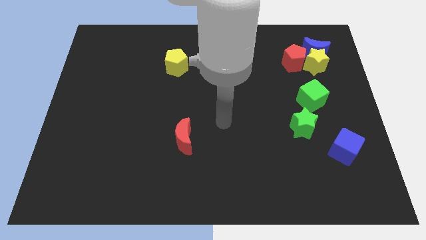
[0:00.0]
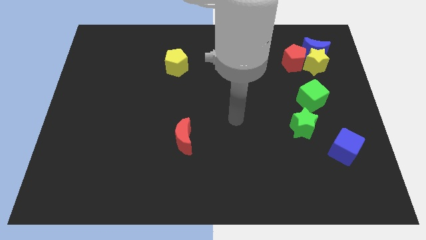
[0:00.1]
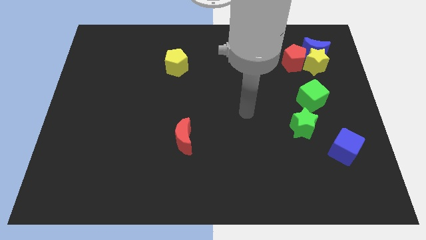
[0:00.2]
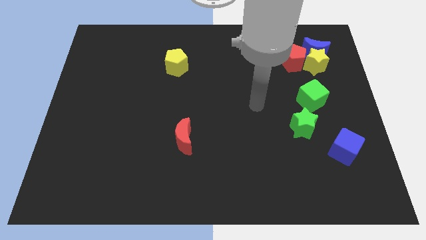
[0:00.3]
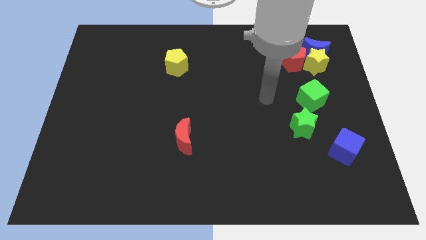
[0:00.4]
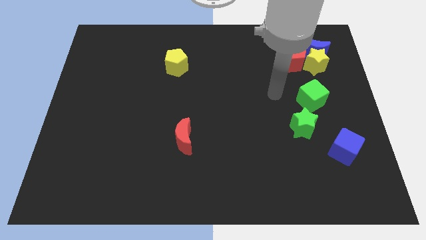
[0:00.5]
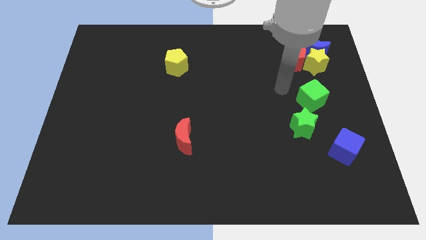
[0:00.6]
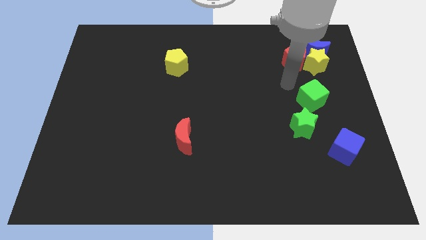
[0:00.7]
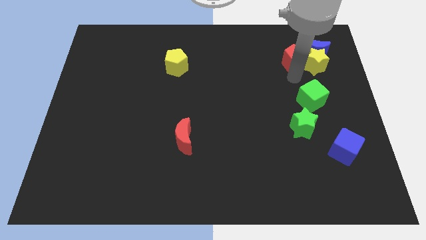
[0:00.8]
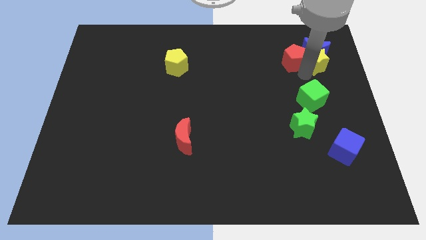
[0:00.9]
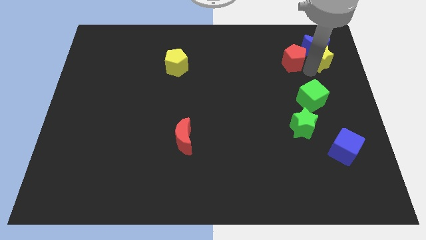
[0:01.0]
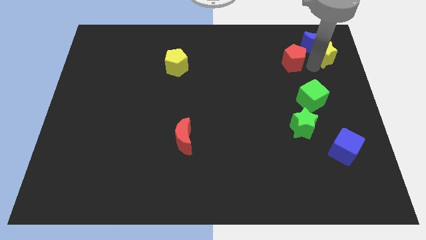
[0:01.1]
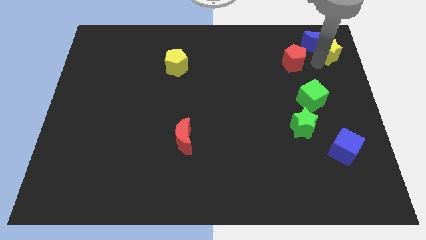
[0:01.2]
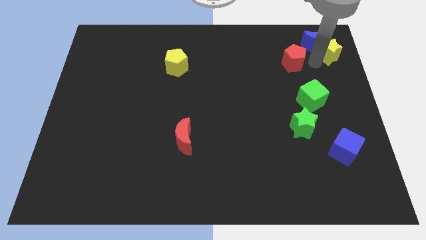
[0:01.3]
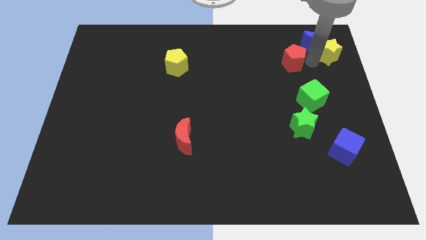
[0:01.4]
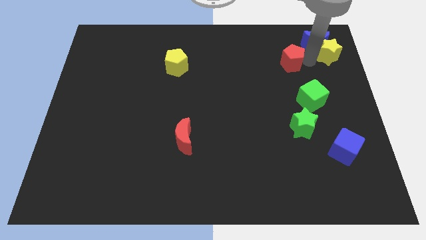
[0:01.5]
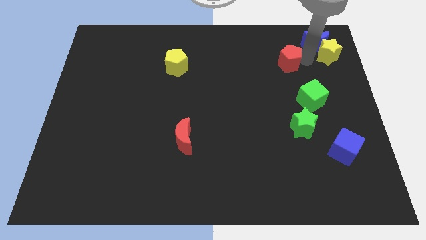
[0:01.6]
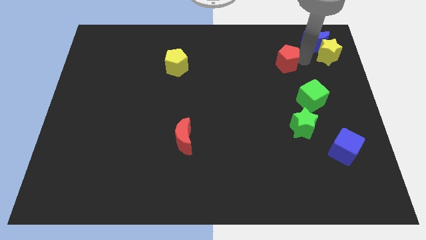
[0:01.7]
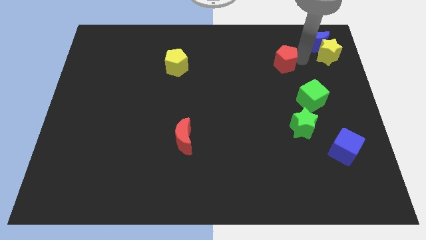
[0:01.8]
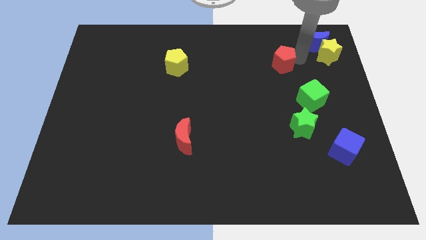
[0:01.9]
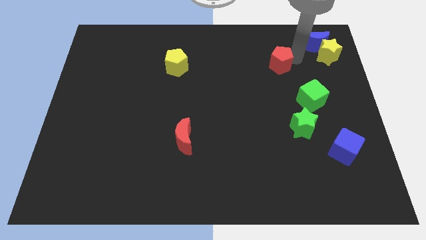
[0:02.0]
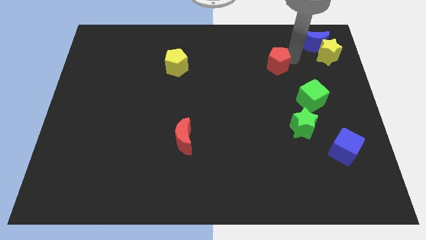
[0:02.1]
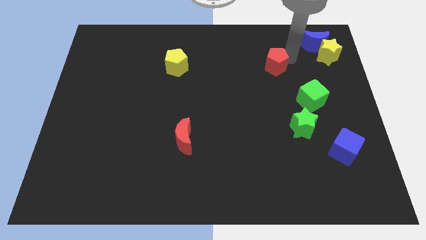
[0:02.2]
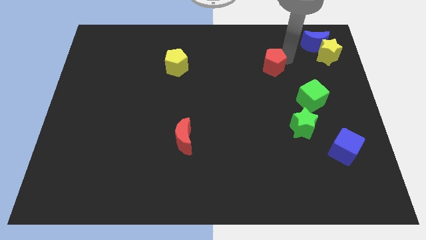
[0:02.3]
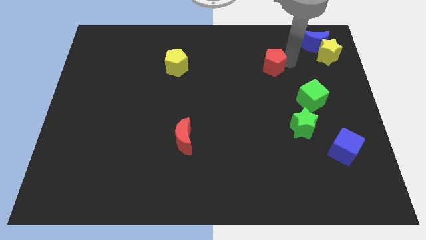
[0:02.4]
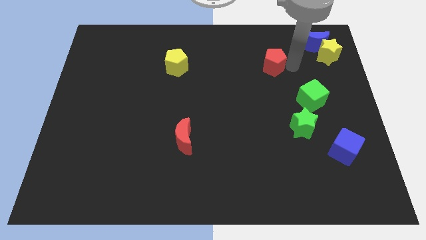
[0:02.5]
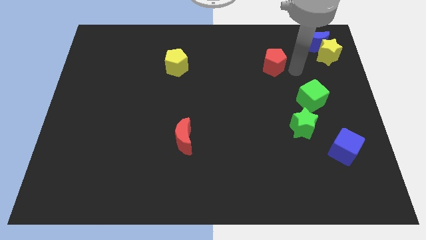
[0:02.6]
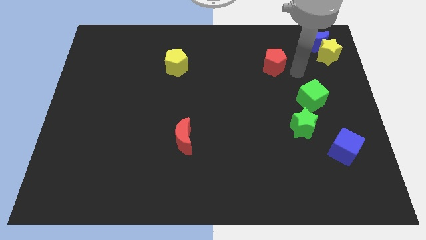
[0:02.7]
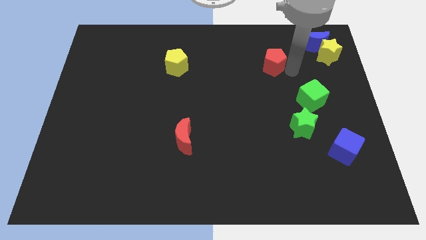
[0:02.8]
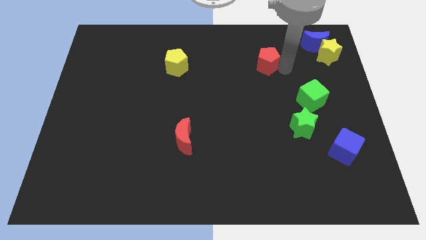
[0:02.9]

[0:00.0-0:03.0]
push the red pentagon a little bit left

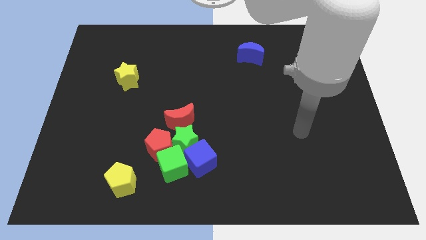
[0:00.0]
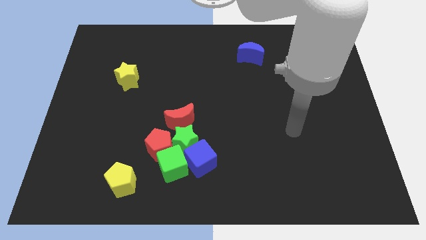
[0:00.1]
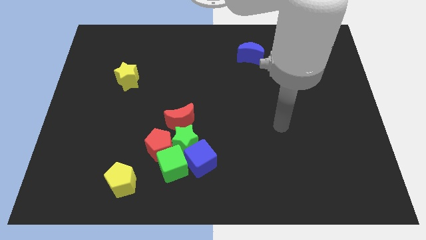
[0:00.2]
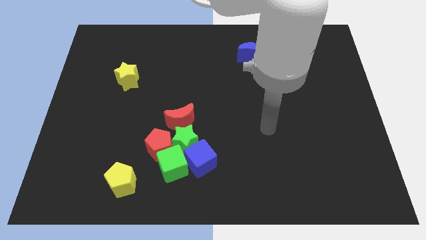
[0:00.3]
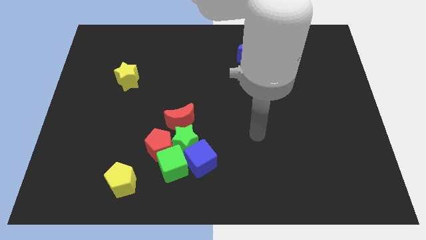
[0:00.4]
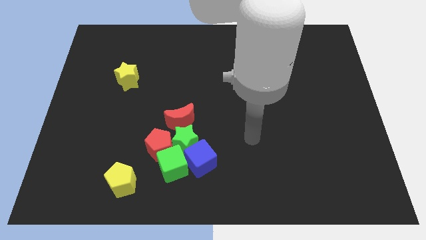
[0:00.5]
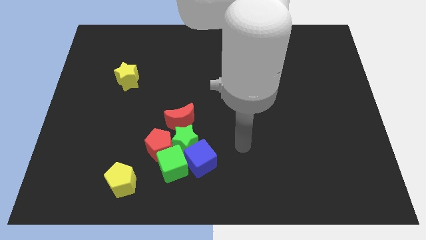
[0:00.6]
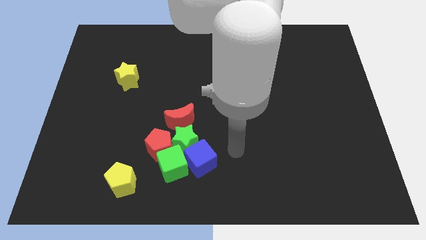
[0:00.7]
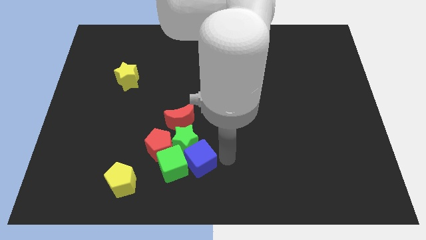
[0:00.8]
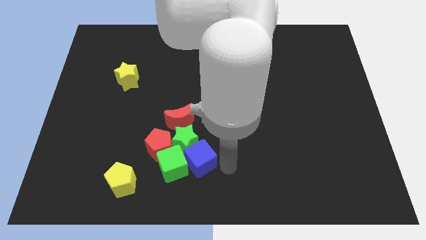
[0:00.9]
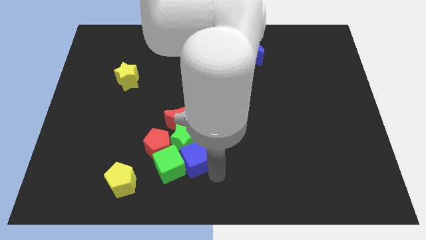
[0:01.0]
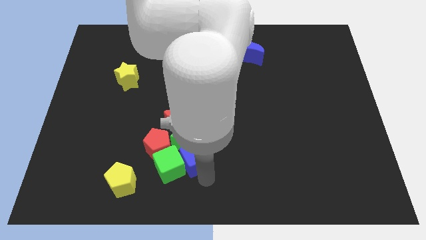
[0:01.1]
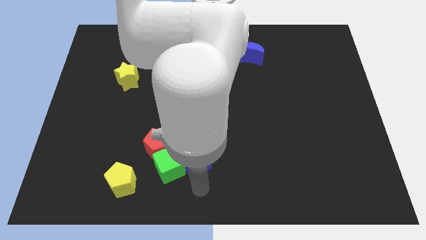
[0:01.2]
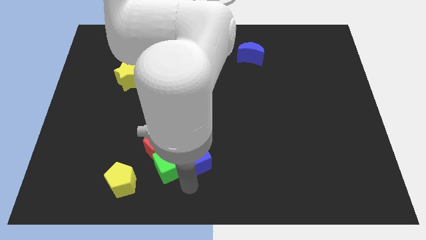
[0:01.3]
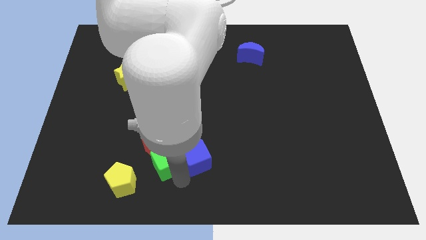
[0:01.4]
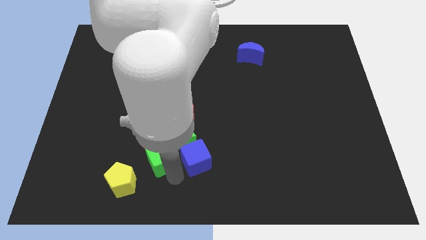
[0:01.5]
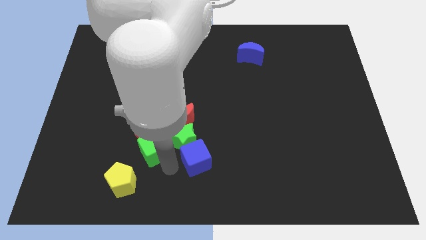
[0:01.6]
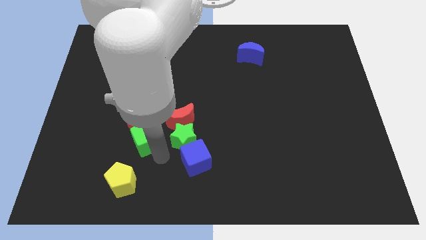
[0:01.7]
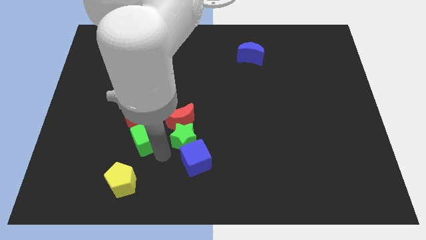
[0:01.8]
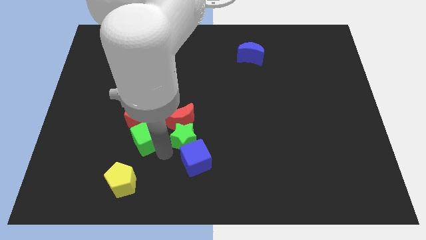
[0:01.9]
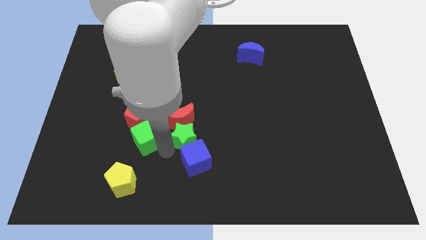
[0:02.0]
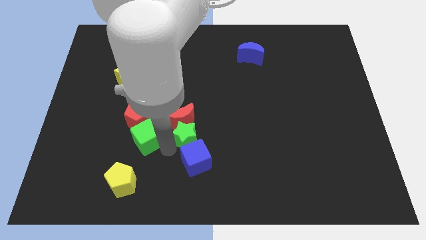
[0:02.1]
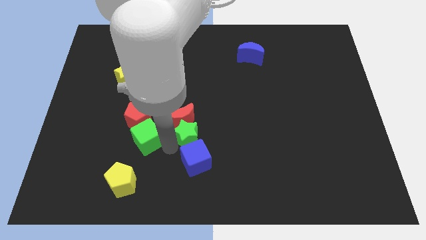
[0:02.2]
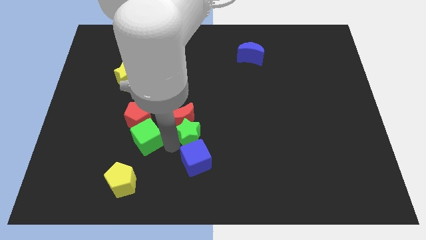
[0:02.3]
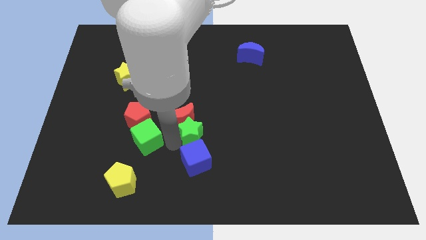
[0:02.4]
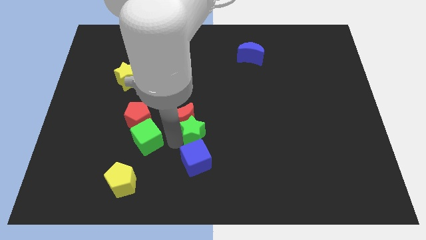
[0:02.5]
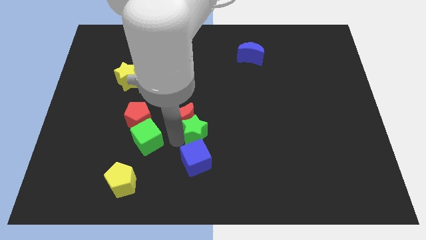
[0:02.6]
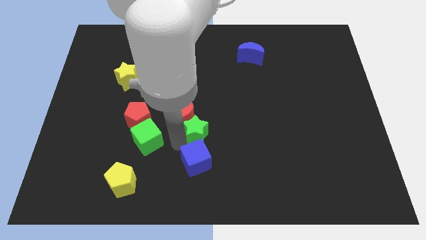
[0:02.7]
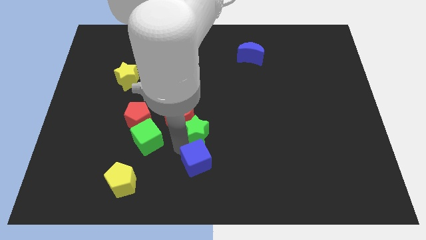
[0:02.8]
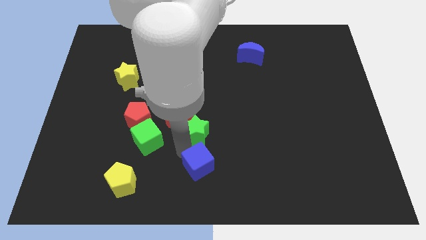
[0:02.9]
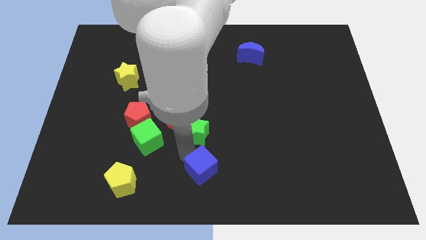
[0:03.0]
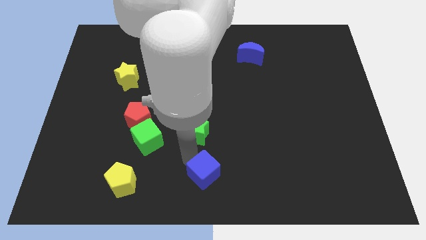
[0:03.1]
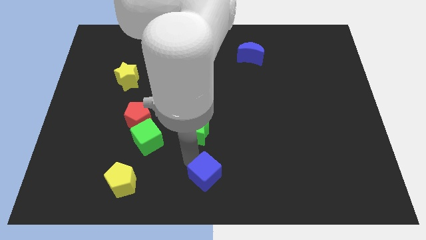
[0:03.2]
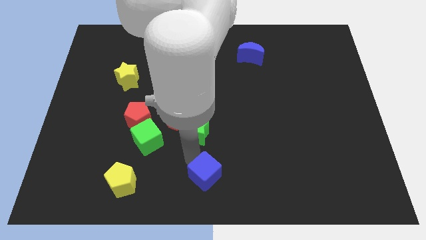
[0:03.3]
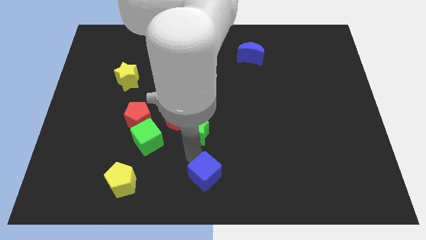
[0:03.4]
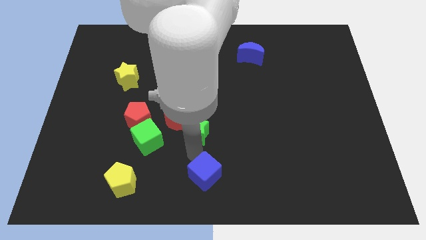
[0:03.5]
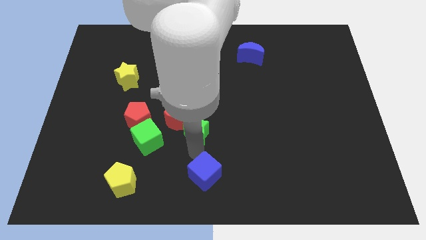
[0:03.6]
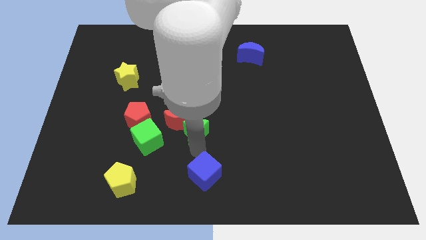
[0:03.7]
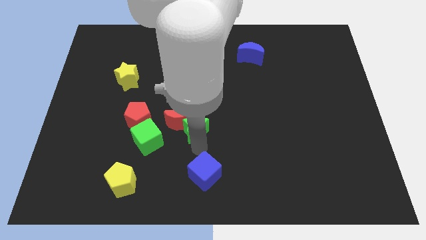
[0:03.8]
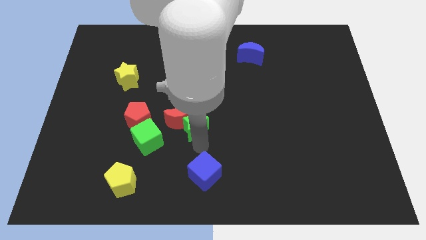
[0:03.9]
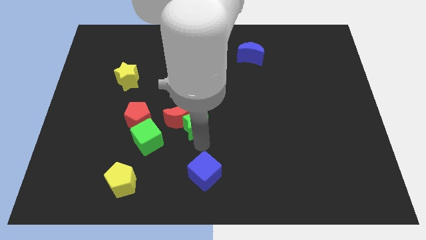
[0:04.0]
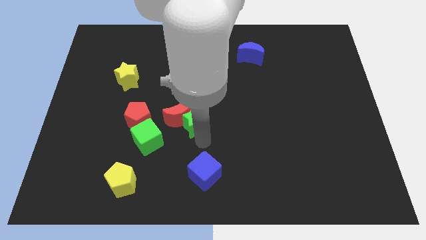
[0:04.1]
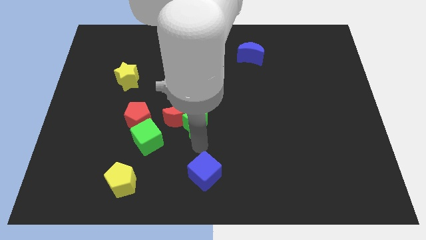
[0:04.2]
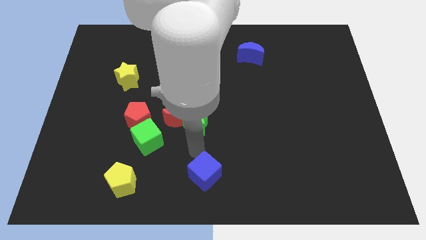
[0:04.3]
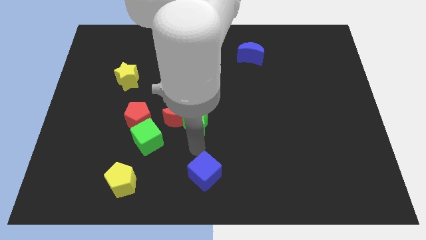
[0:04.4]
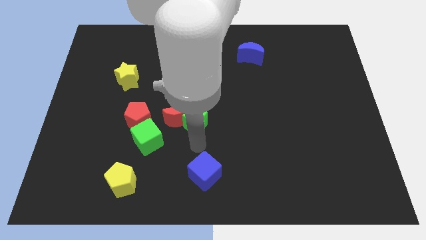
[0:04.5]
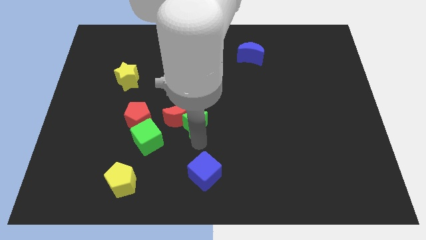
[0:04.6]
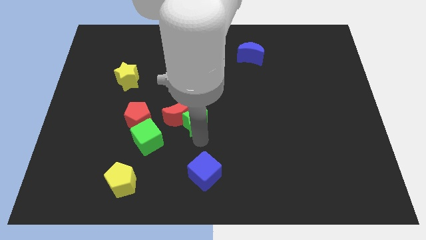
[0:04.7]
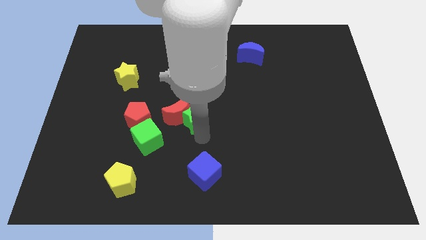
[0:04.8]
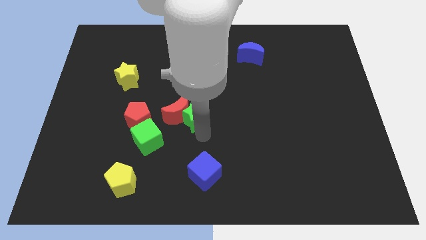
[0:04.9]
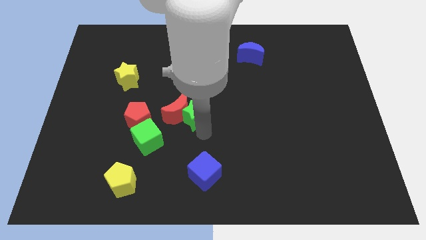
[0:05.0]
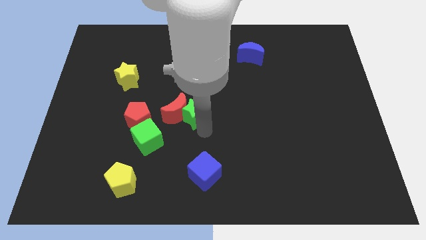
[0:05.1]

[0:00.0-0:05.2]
push the green star upwards a bit

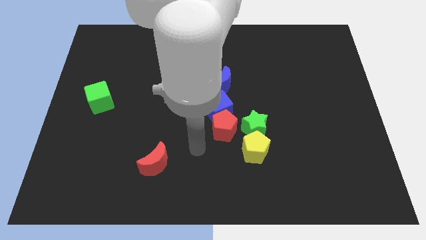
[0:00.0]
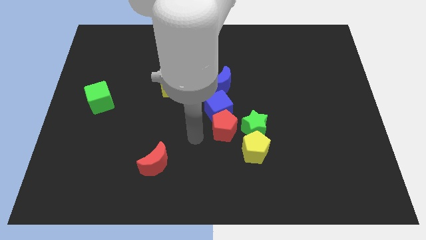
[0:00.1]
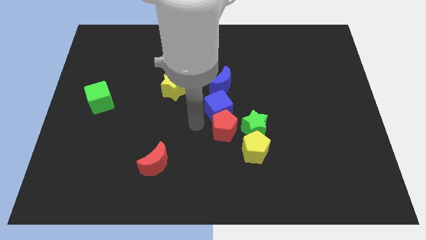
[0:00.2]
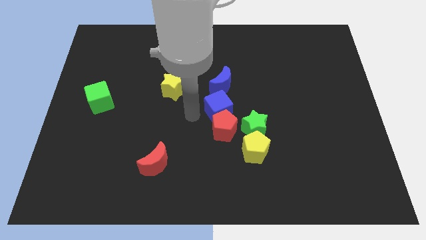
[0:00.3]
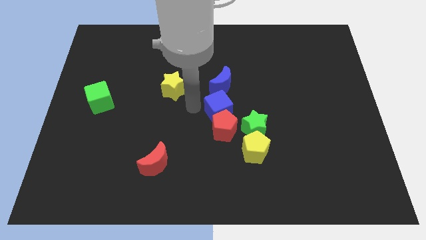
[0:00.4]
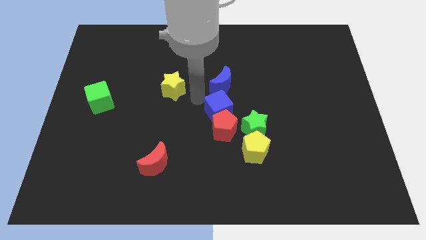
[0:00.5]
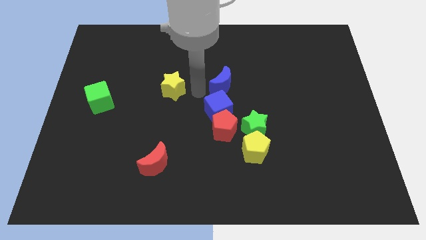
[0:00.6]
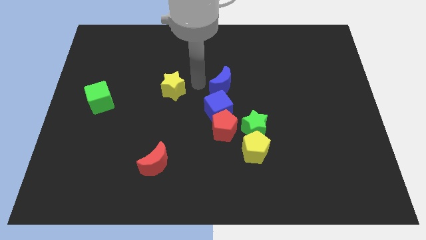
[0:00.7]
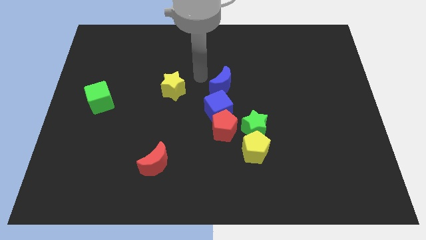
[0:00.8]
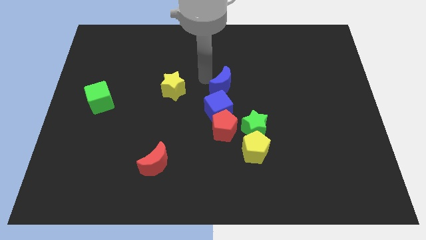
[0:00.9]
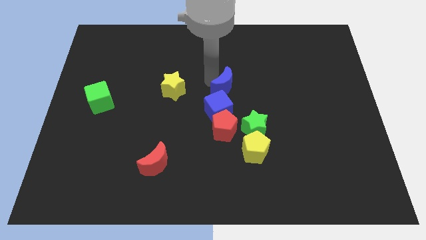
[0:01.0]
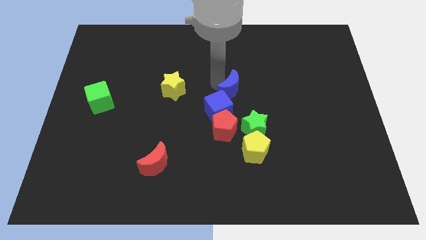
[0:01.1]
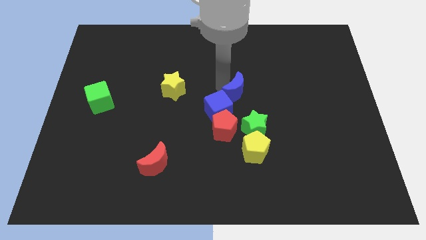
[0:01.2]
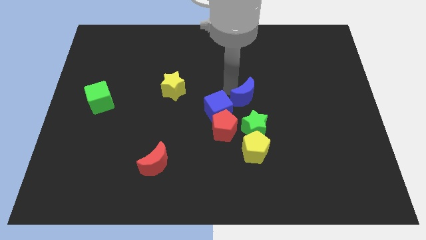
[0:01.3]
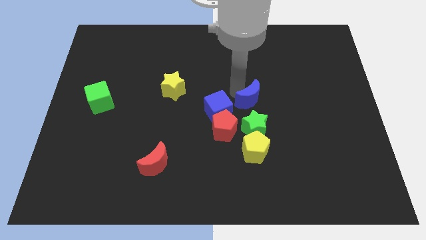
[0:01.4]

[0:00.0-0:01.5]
push the blue moon down and then to the right a little
